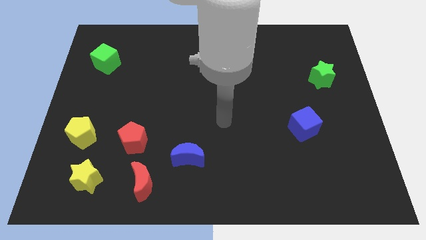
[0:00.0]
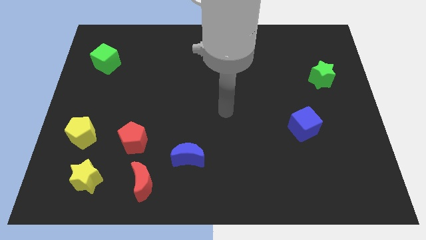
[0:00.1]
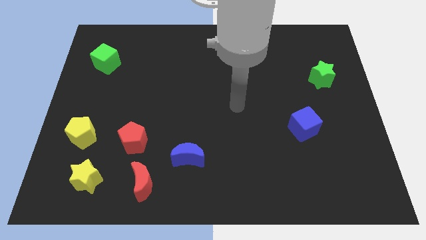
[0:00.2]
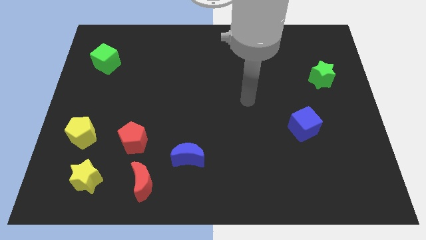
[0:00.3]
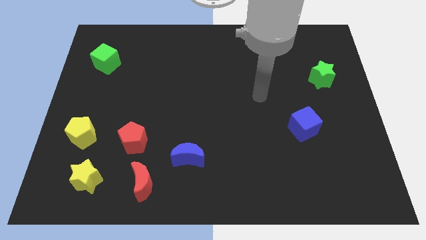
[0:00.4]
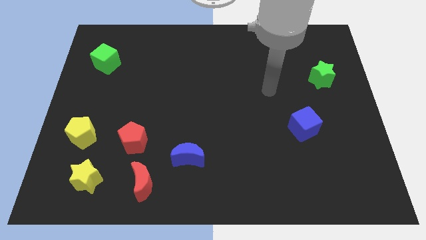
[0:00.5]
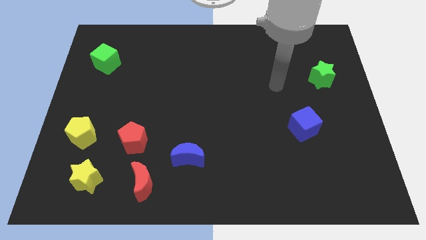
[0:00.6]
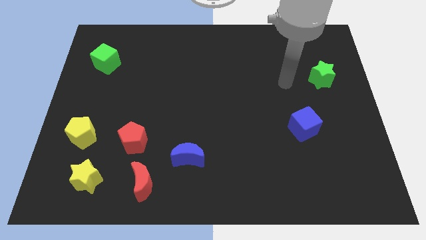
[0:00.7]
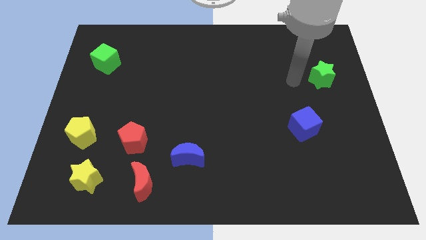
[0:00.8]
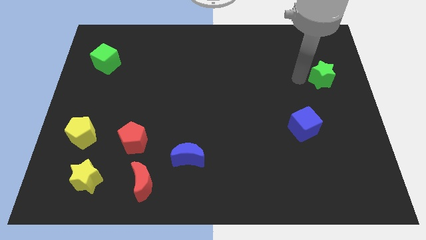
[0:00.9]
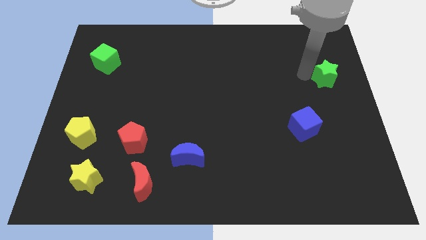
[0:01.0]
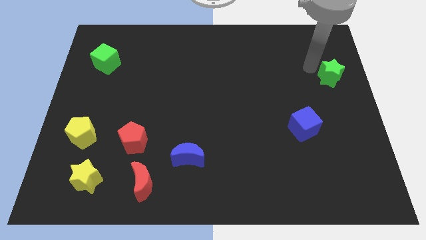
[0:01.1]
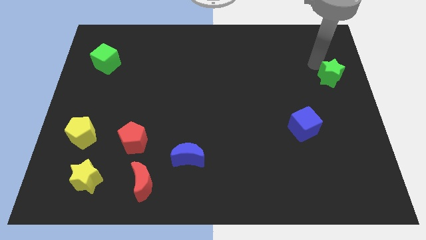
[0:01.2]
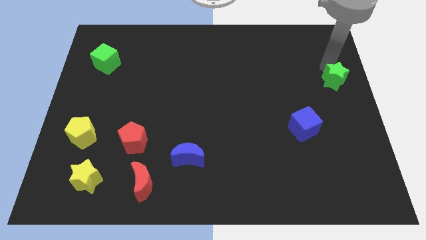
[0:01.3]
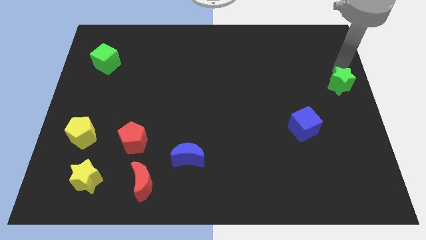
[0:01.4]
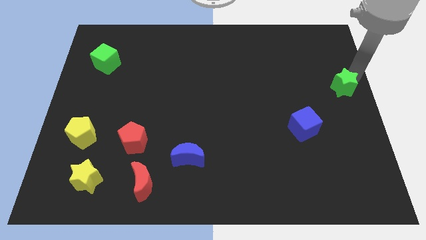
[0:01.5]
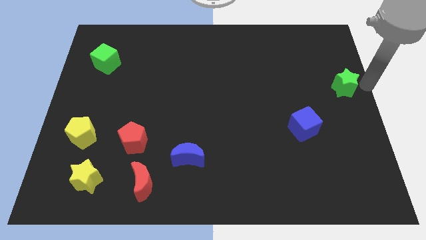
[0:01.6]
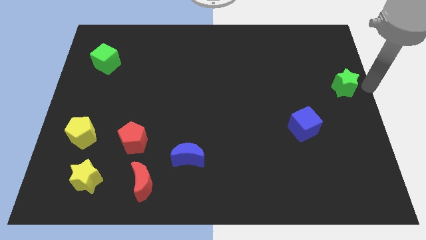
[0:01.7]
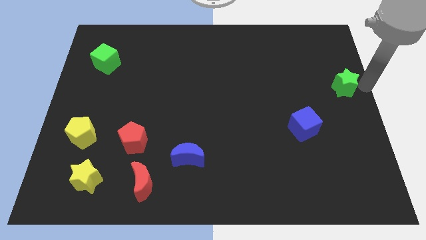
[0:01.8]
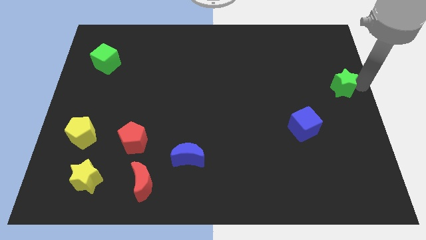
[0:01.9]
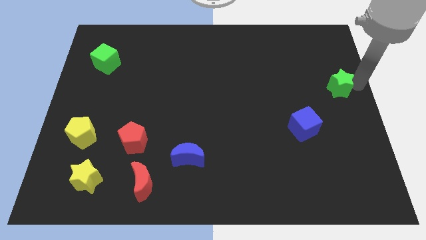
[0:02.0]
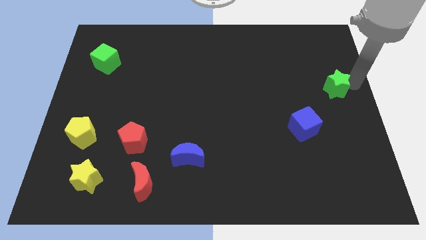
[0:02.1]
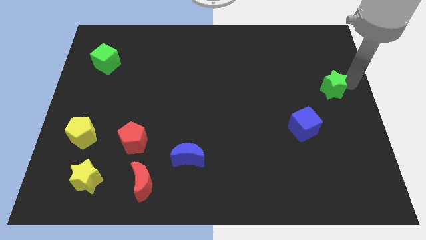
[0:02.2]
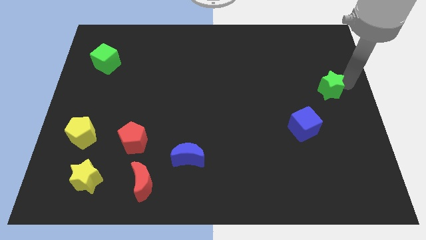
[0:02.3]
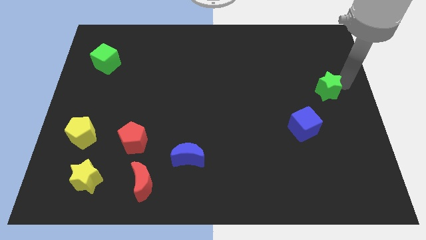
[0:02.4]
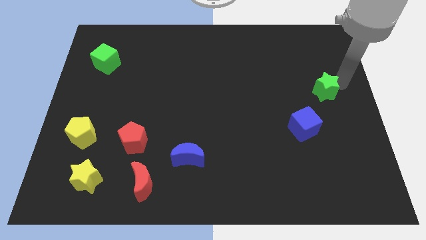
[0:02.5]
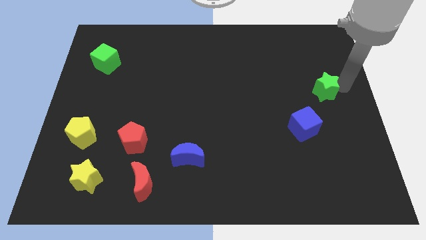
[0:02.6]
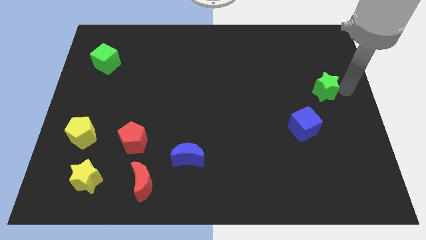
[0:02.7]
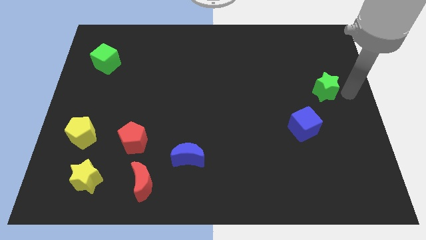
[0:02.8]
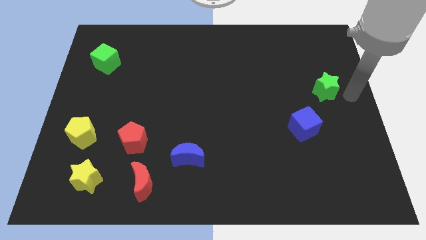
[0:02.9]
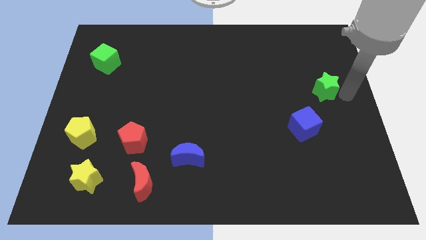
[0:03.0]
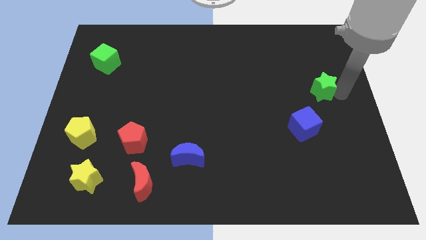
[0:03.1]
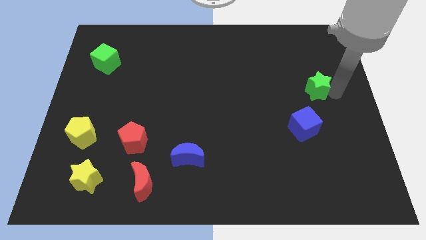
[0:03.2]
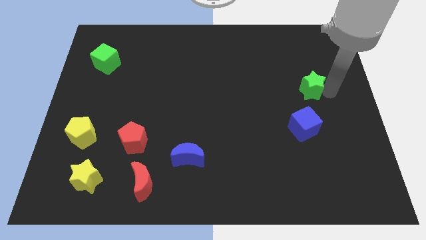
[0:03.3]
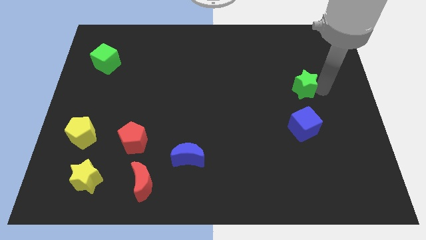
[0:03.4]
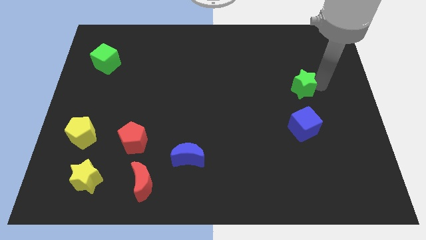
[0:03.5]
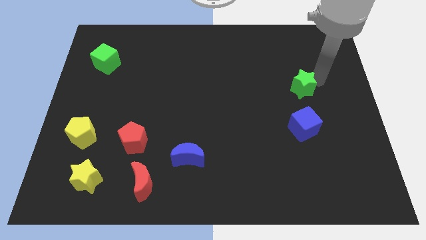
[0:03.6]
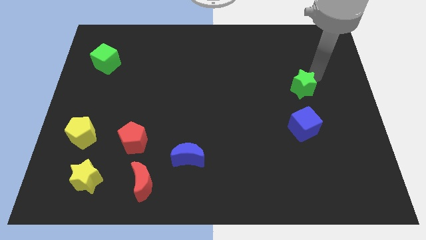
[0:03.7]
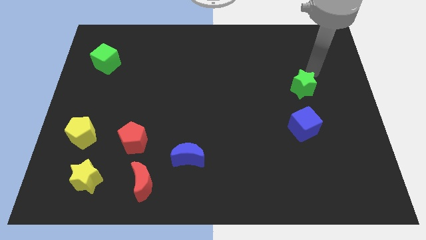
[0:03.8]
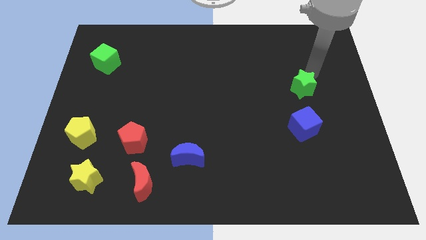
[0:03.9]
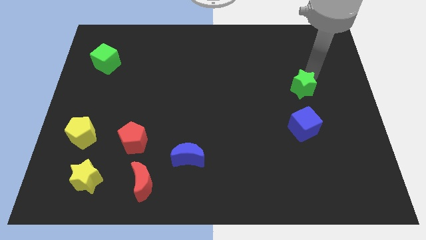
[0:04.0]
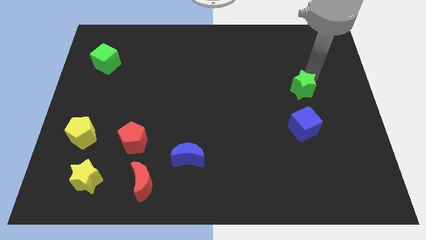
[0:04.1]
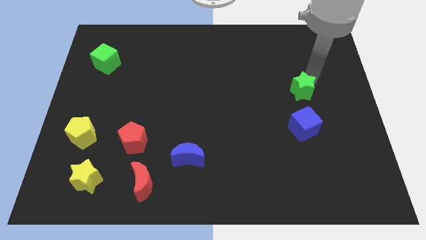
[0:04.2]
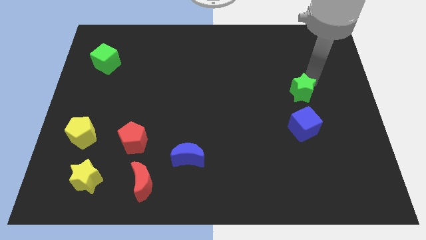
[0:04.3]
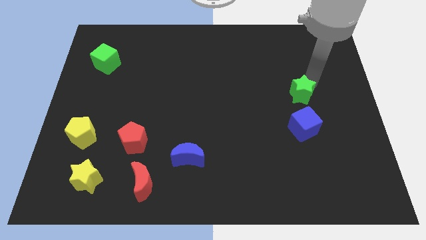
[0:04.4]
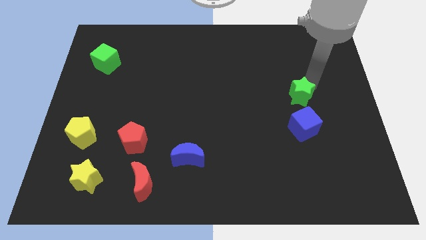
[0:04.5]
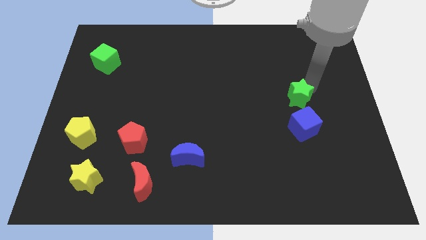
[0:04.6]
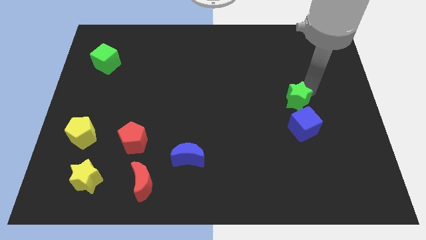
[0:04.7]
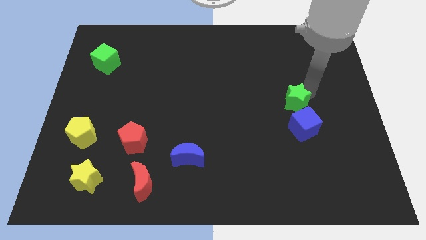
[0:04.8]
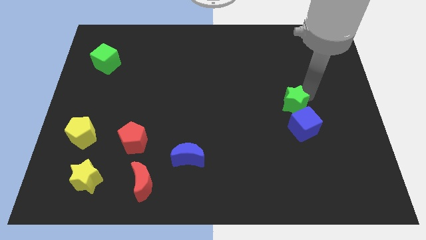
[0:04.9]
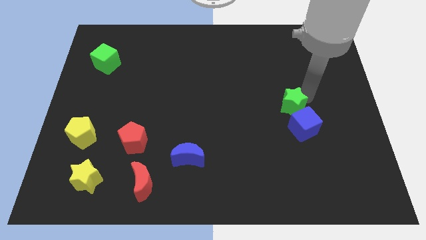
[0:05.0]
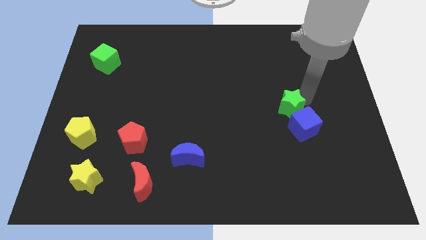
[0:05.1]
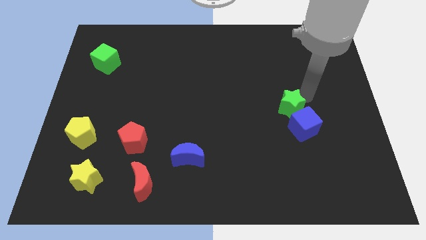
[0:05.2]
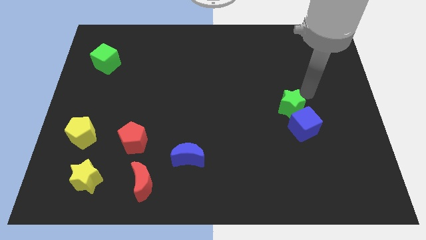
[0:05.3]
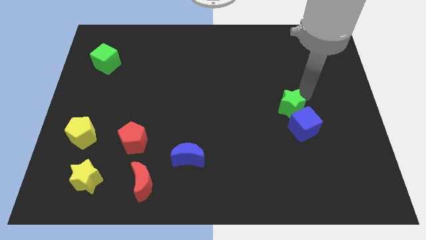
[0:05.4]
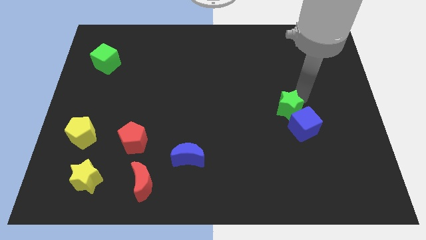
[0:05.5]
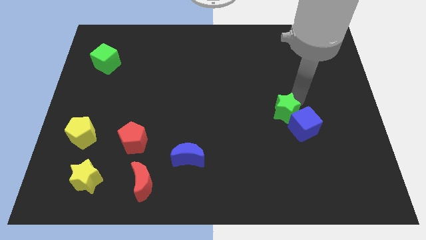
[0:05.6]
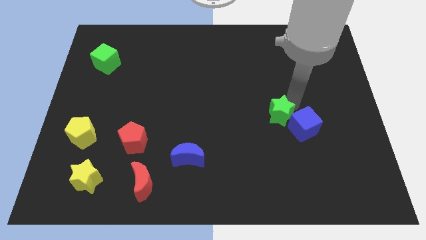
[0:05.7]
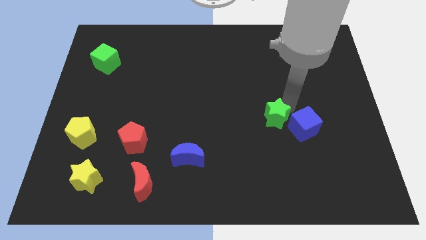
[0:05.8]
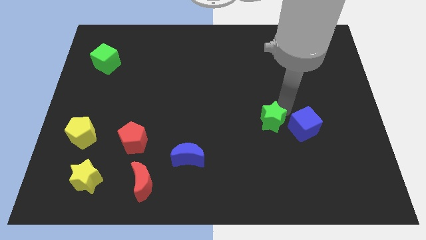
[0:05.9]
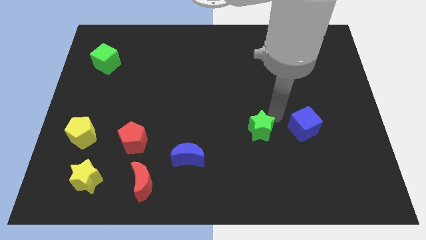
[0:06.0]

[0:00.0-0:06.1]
move the green star down and left diagonally

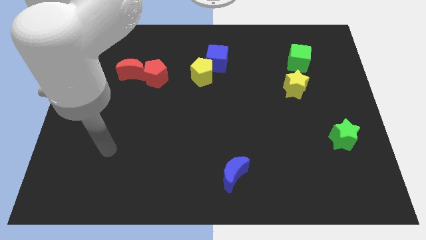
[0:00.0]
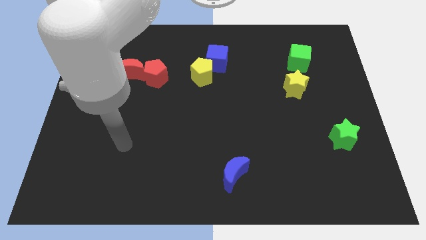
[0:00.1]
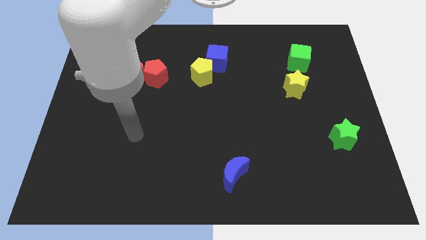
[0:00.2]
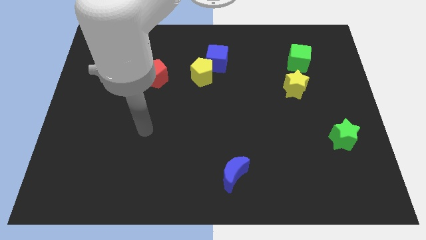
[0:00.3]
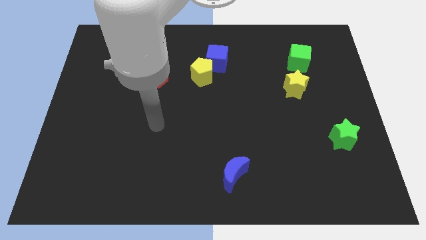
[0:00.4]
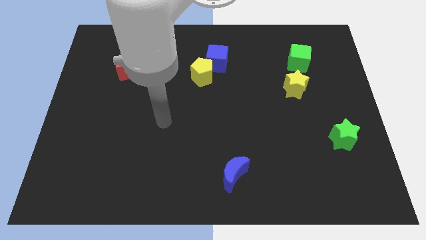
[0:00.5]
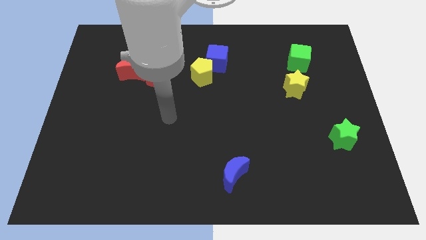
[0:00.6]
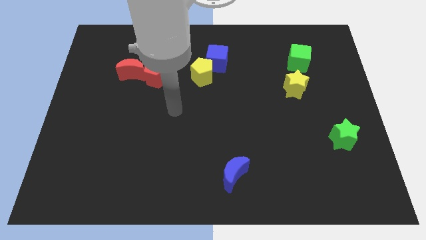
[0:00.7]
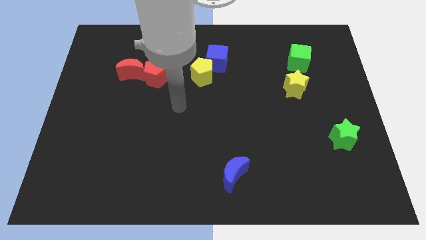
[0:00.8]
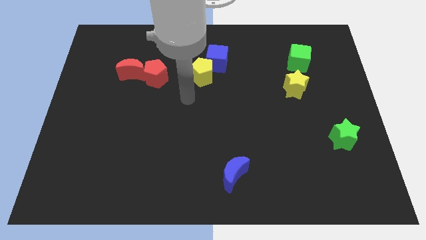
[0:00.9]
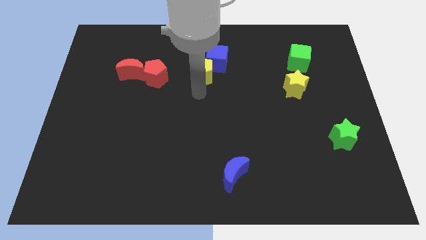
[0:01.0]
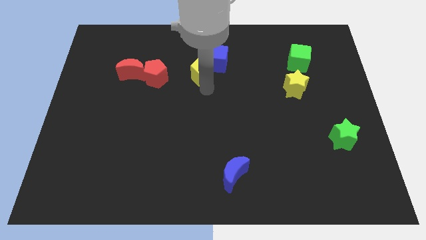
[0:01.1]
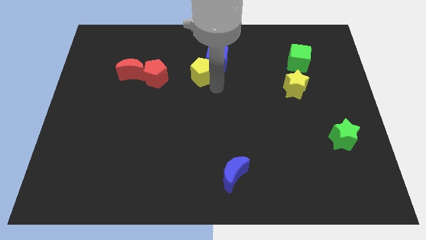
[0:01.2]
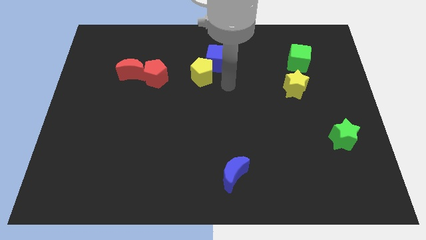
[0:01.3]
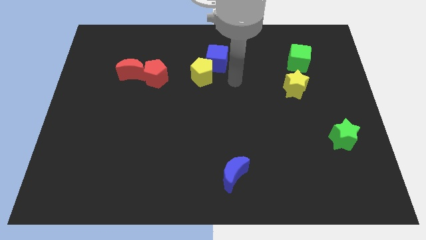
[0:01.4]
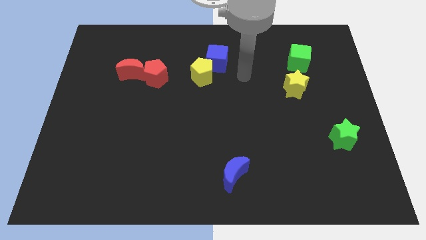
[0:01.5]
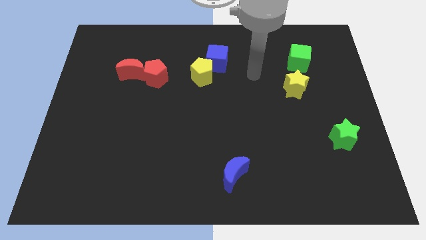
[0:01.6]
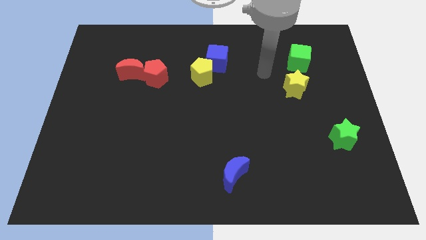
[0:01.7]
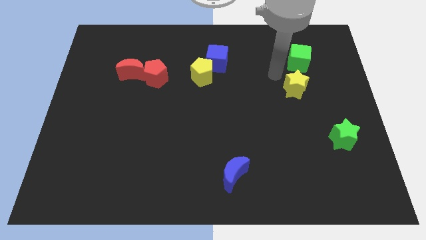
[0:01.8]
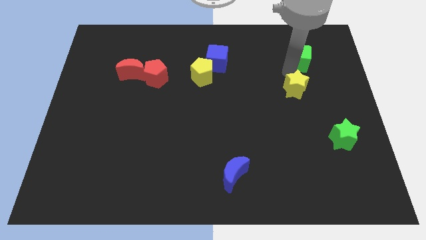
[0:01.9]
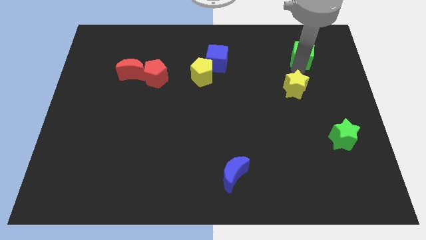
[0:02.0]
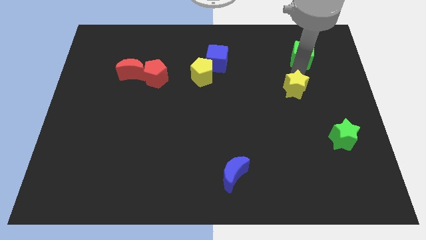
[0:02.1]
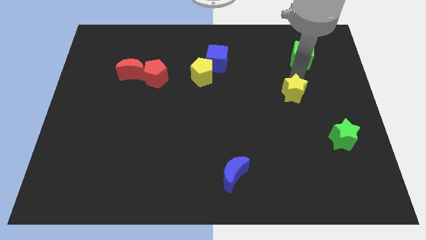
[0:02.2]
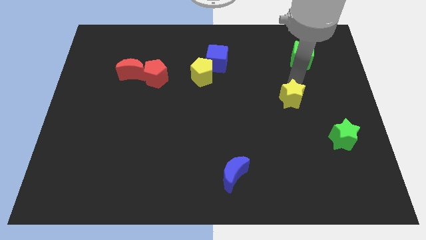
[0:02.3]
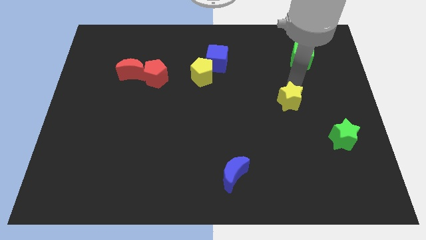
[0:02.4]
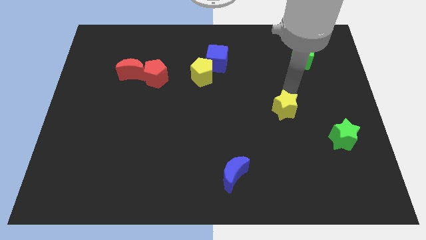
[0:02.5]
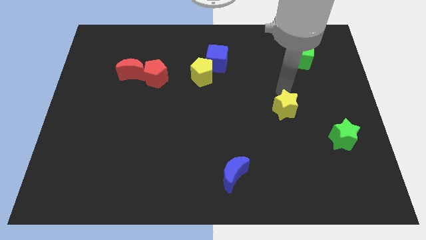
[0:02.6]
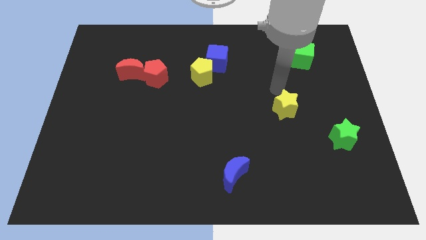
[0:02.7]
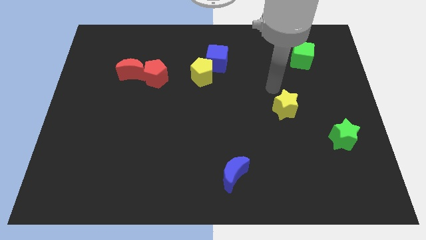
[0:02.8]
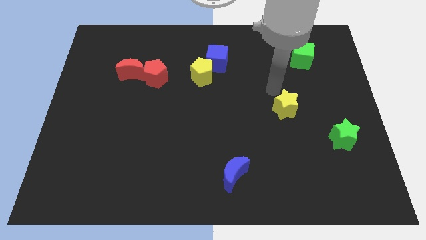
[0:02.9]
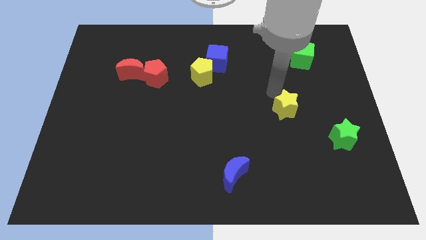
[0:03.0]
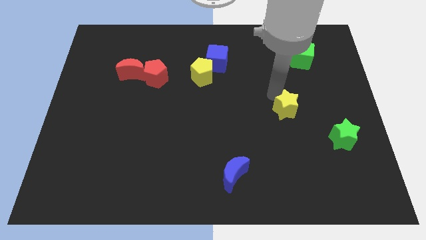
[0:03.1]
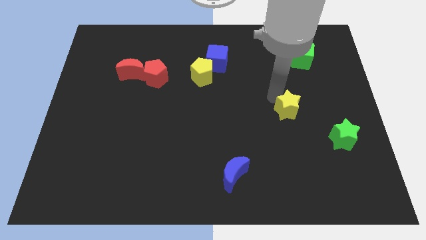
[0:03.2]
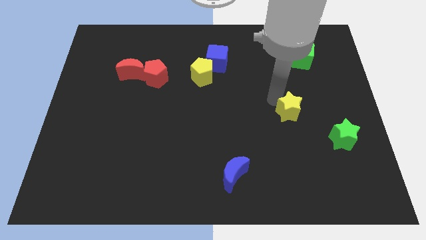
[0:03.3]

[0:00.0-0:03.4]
slightly slide the yellow star down
